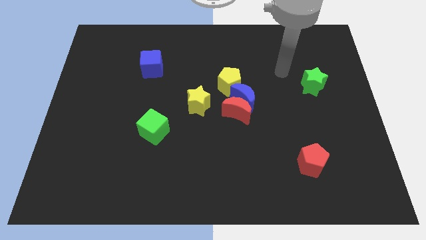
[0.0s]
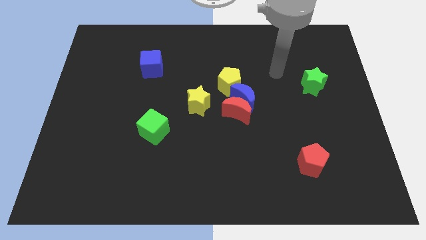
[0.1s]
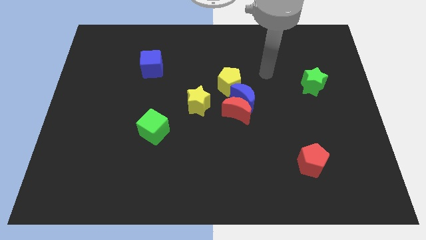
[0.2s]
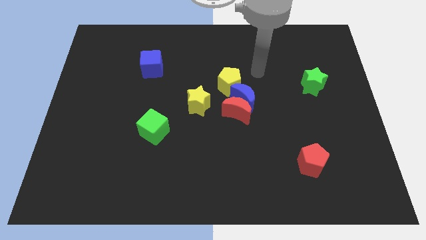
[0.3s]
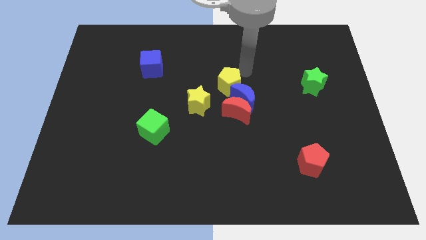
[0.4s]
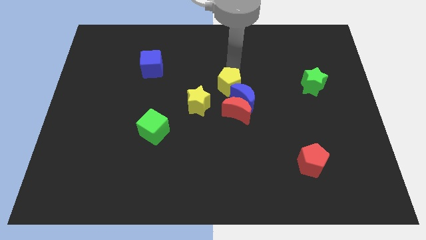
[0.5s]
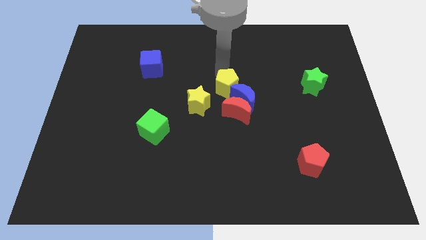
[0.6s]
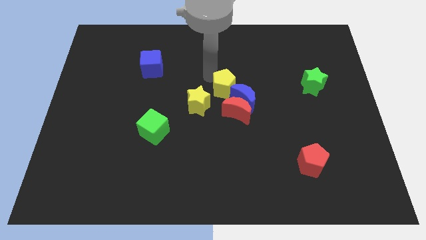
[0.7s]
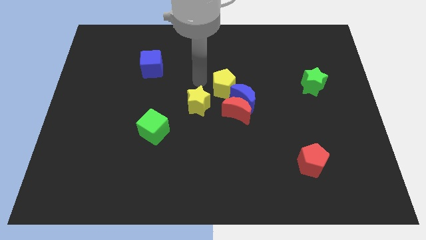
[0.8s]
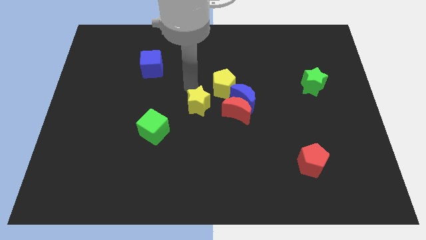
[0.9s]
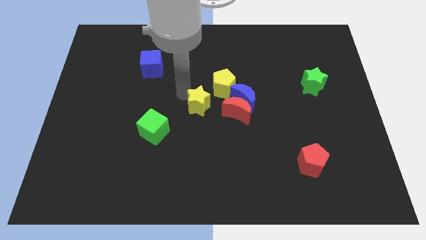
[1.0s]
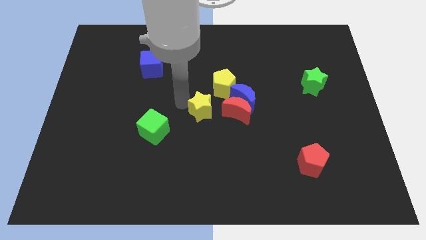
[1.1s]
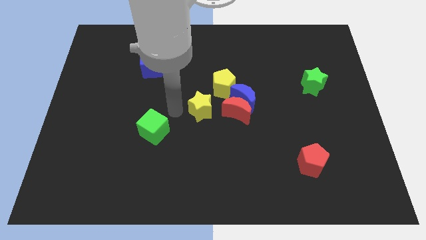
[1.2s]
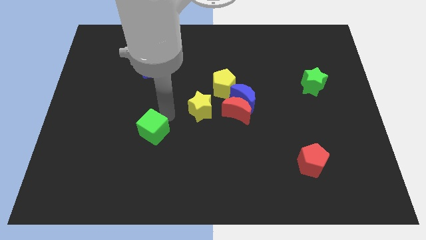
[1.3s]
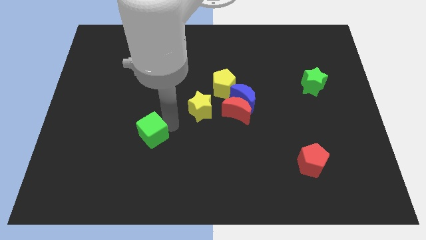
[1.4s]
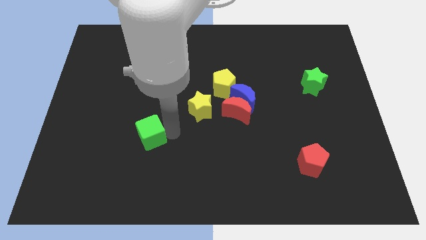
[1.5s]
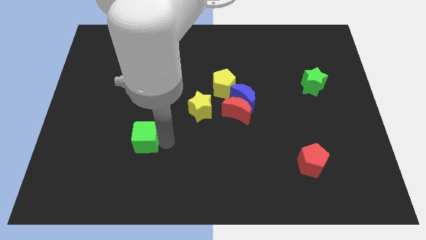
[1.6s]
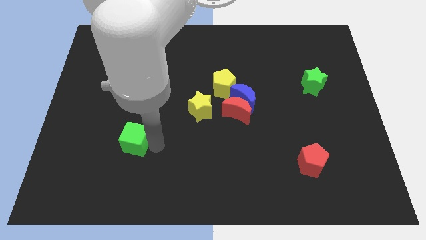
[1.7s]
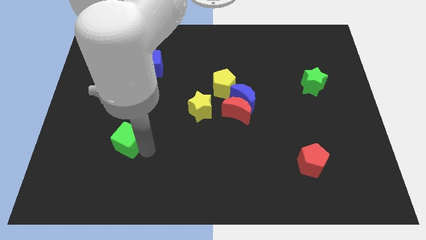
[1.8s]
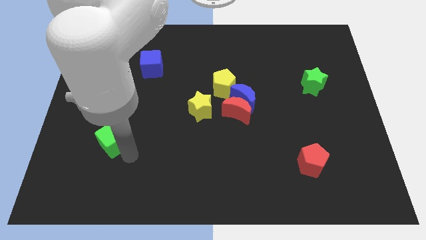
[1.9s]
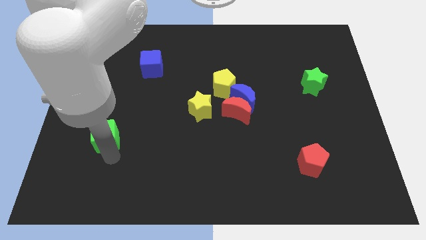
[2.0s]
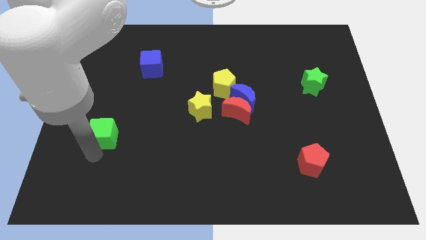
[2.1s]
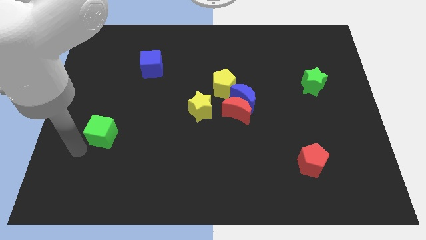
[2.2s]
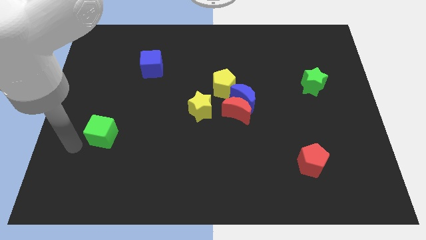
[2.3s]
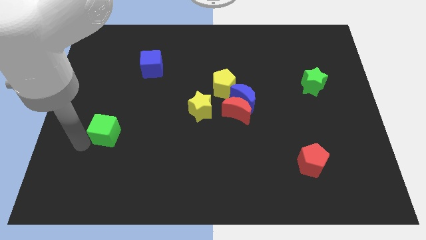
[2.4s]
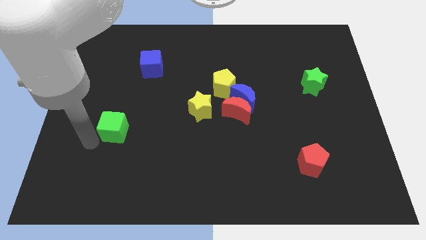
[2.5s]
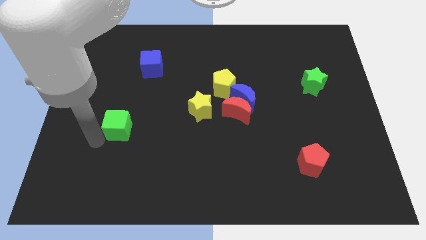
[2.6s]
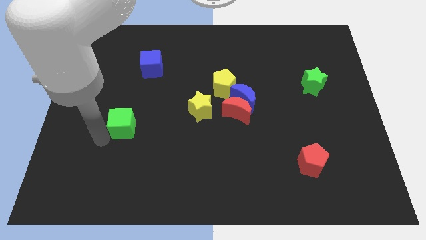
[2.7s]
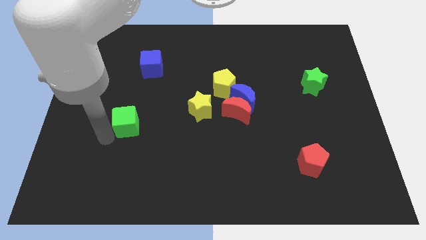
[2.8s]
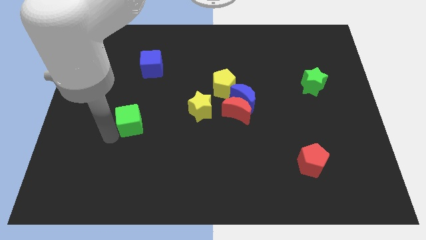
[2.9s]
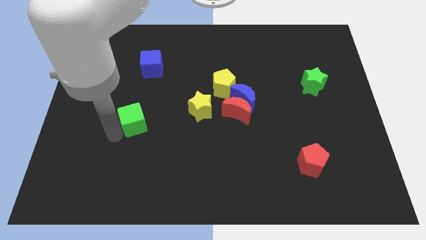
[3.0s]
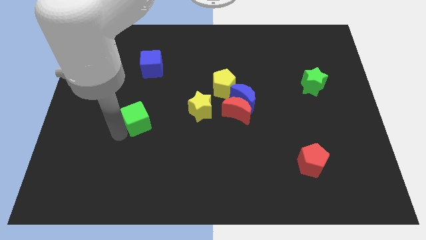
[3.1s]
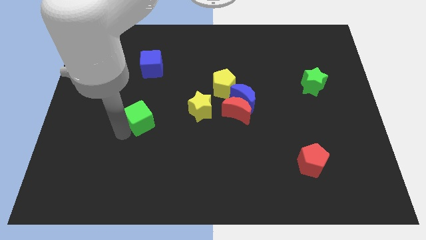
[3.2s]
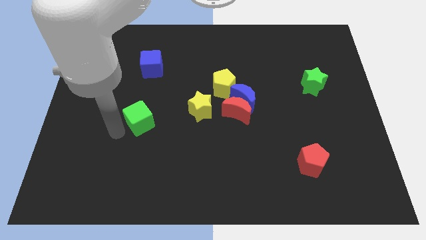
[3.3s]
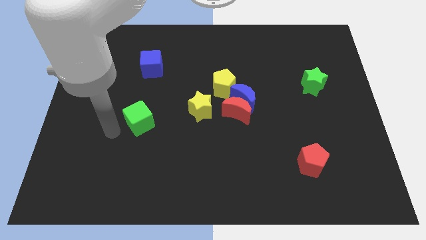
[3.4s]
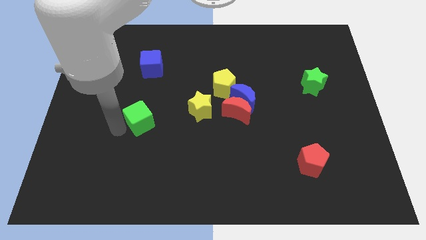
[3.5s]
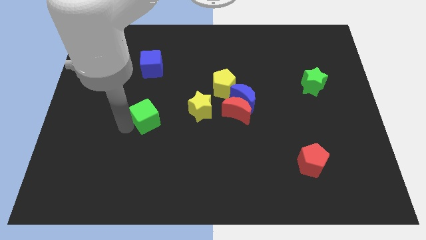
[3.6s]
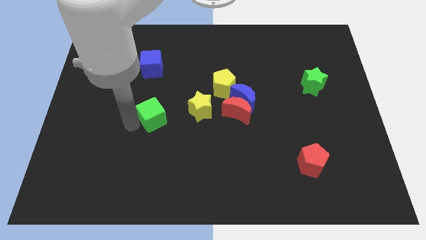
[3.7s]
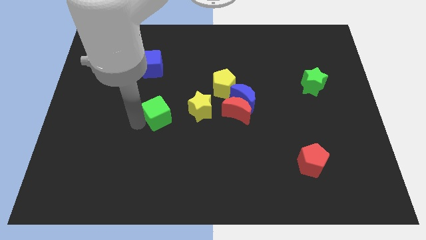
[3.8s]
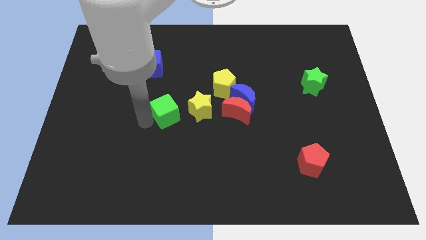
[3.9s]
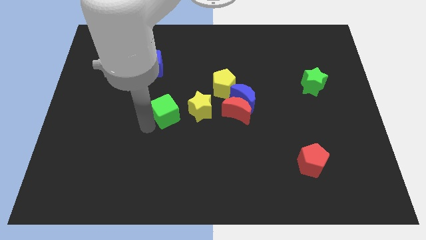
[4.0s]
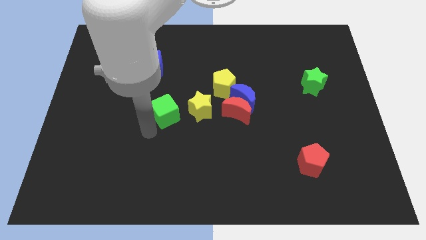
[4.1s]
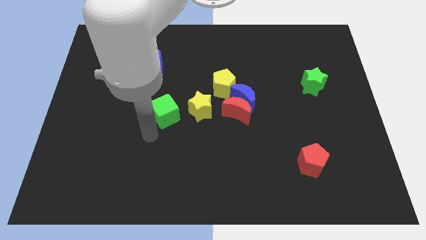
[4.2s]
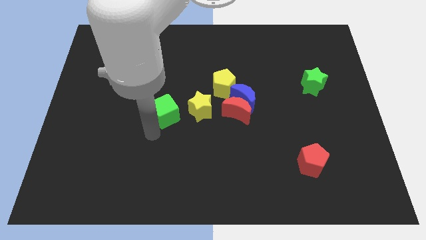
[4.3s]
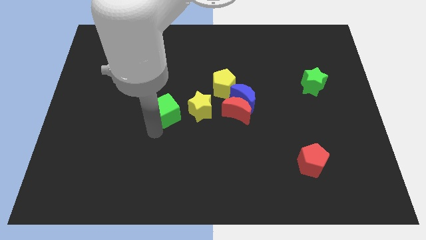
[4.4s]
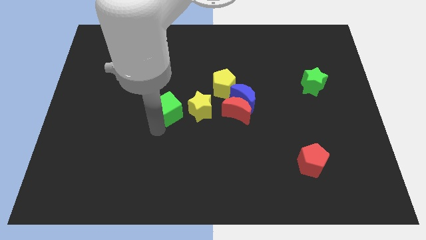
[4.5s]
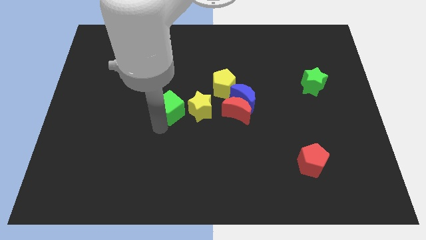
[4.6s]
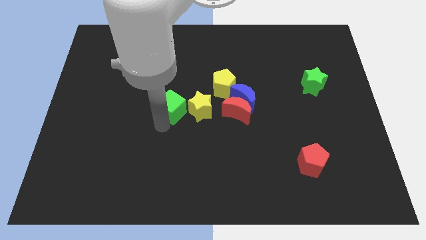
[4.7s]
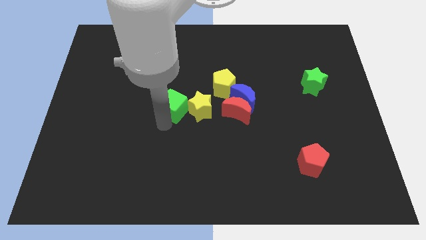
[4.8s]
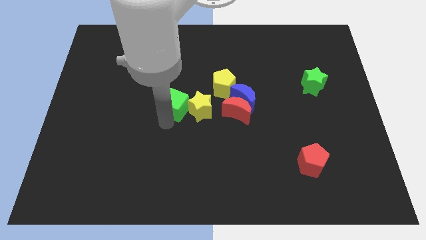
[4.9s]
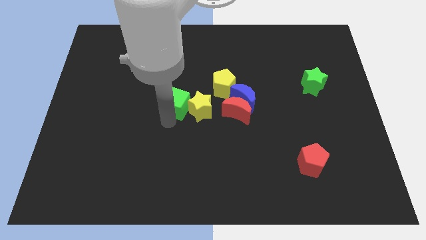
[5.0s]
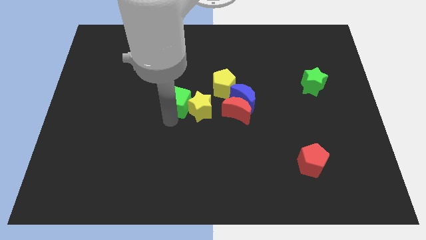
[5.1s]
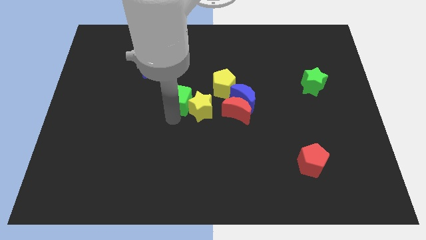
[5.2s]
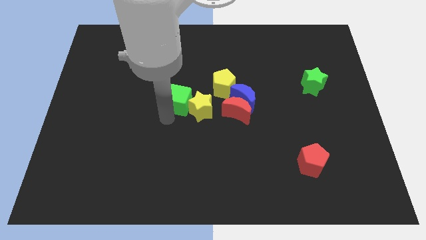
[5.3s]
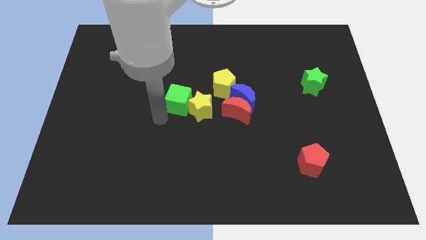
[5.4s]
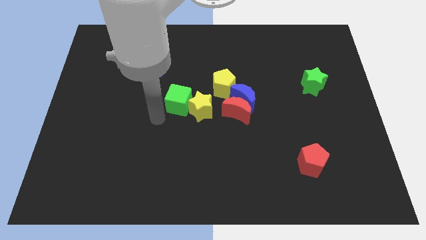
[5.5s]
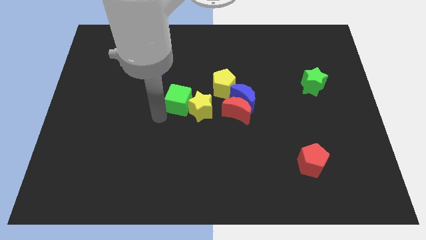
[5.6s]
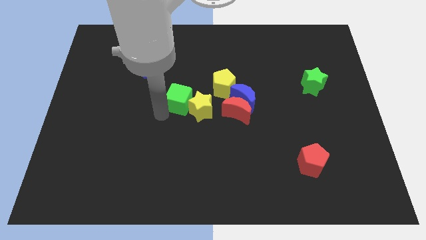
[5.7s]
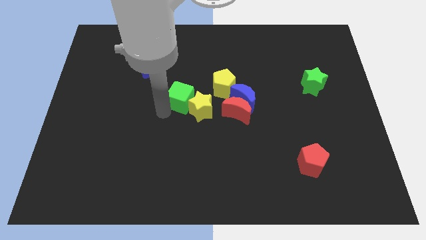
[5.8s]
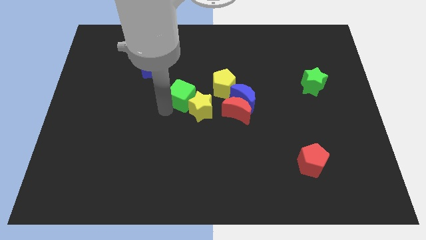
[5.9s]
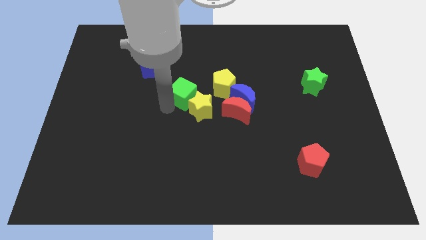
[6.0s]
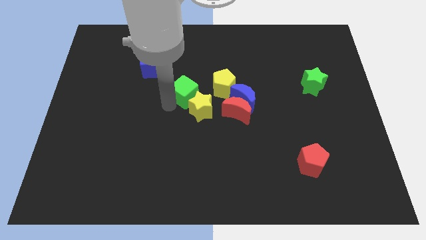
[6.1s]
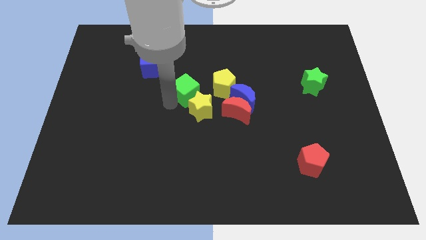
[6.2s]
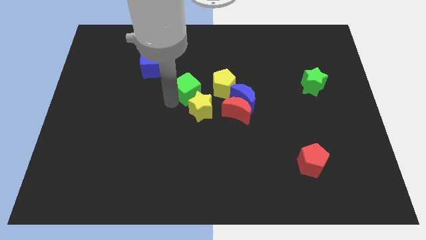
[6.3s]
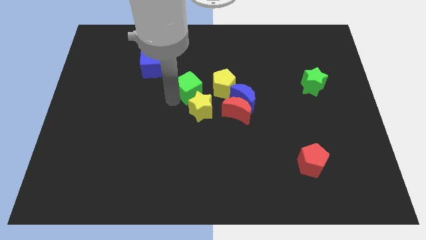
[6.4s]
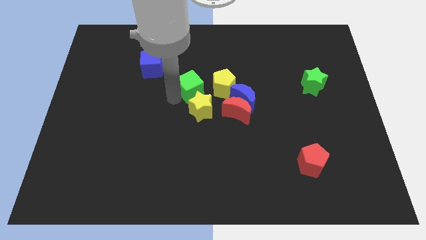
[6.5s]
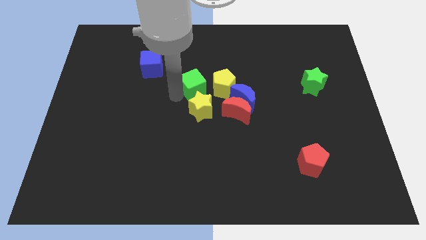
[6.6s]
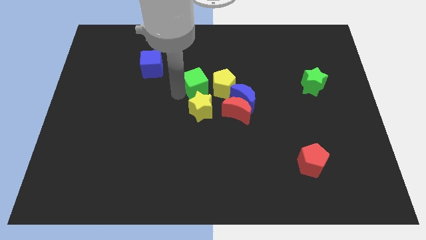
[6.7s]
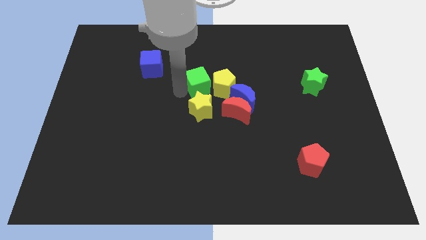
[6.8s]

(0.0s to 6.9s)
move the green cube next to the yellow pentagon
